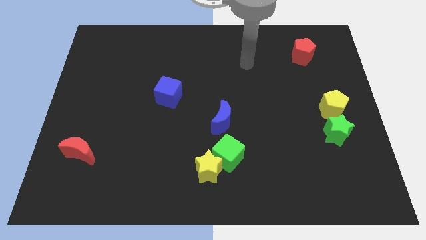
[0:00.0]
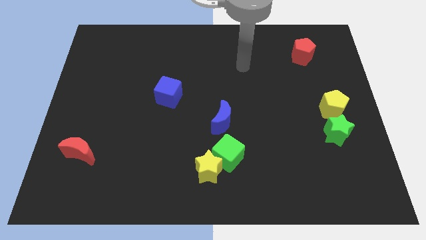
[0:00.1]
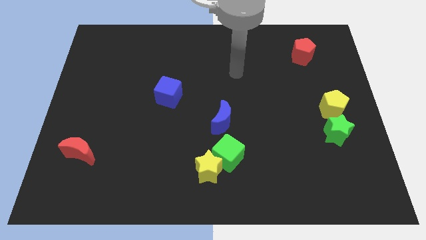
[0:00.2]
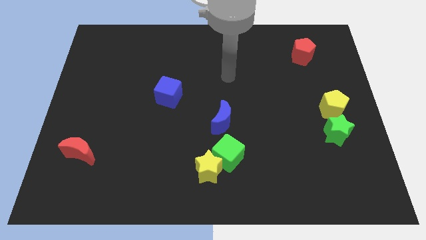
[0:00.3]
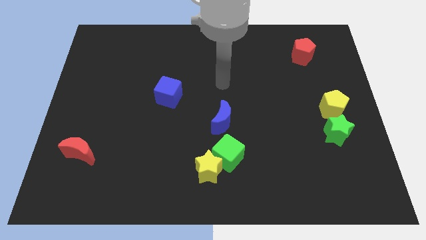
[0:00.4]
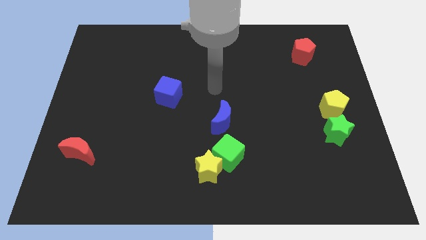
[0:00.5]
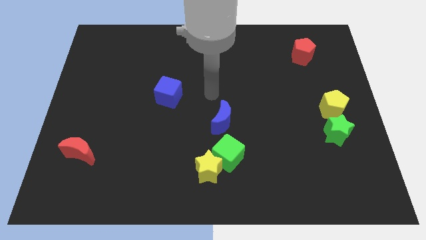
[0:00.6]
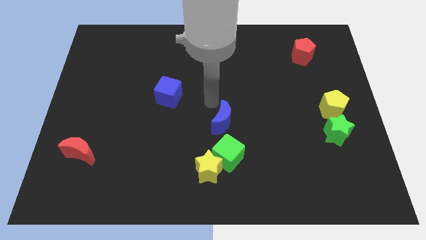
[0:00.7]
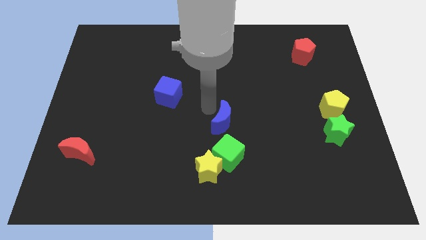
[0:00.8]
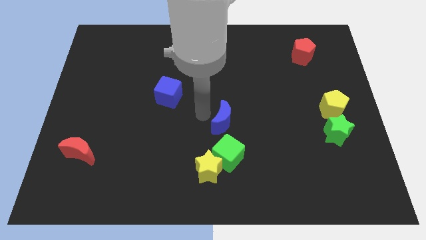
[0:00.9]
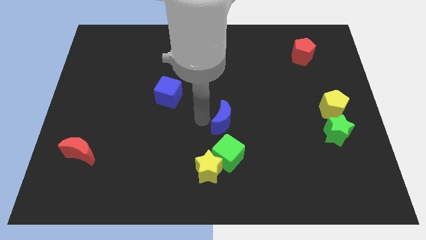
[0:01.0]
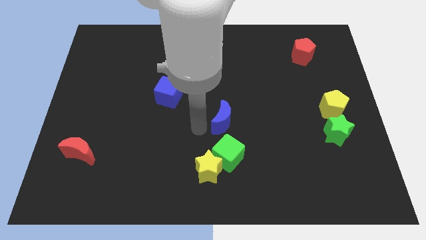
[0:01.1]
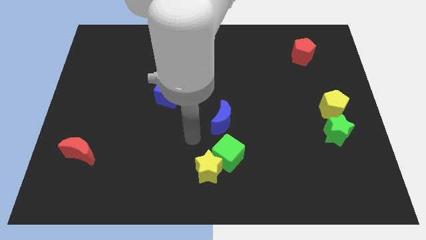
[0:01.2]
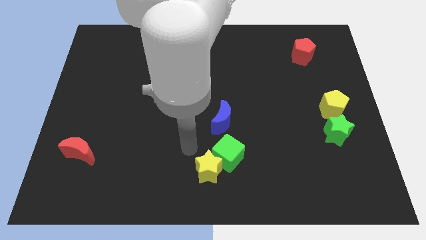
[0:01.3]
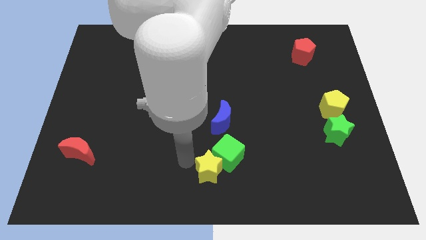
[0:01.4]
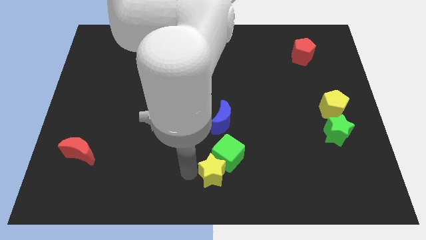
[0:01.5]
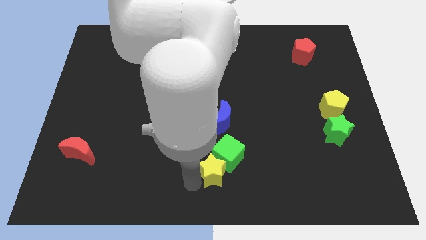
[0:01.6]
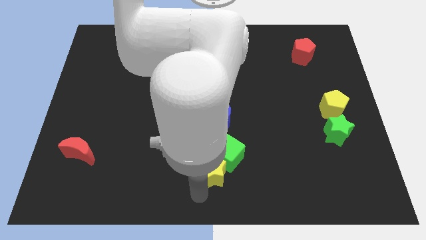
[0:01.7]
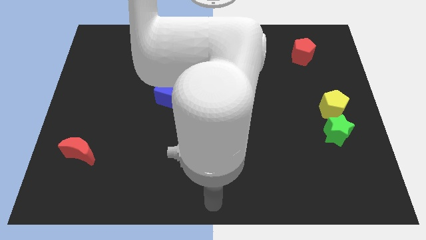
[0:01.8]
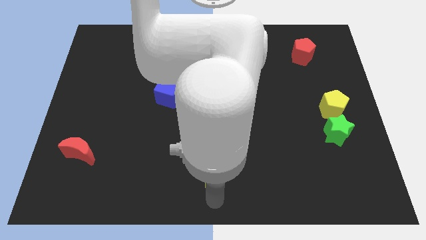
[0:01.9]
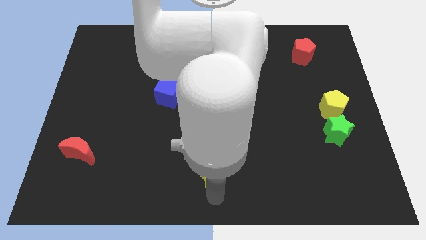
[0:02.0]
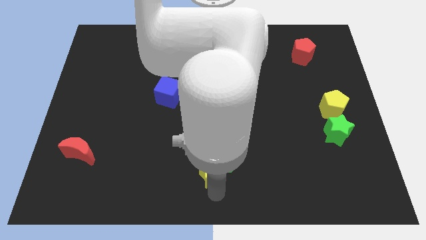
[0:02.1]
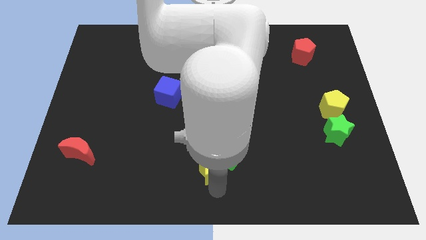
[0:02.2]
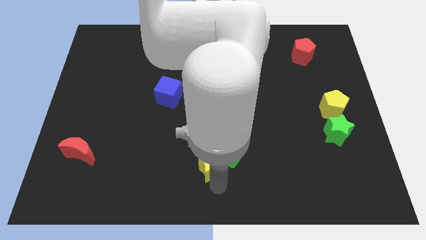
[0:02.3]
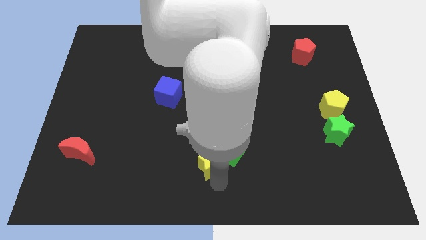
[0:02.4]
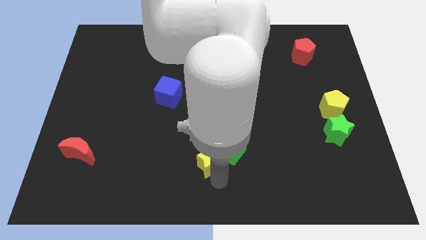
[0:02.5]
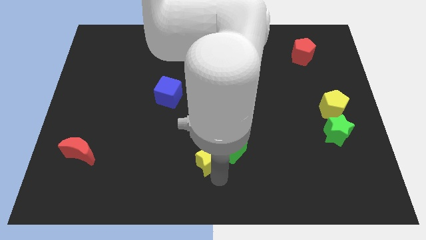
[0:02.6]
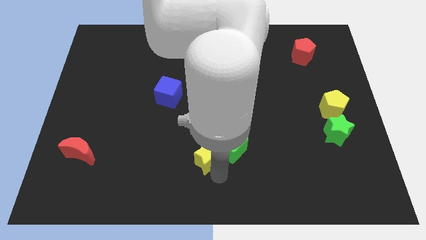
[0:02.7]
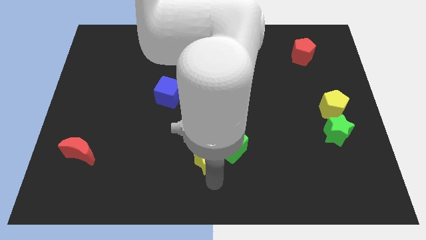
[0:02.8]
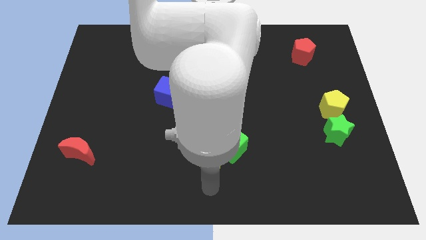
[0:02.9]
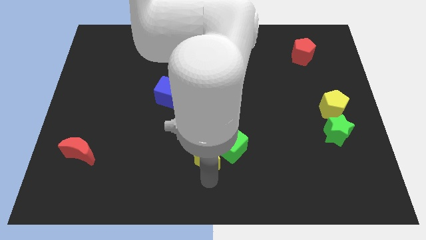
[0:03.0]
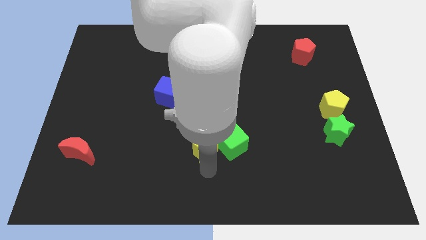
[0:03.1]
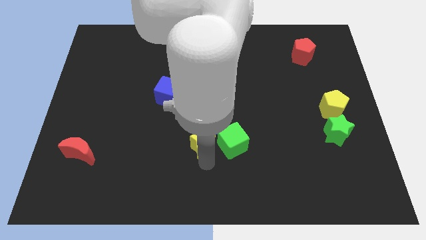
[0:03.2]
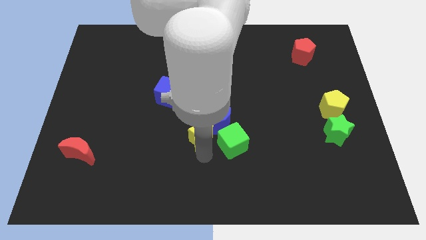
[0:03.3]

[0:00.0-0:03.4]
slightly push the yellow star upwards

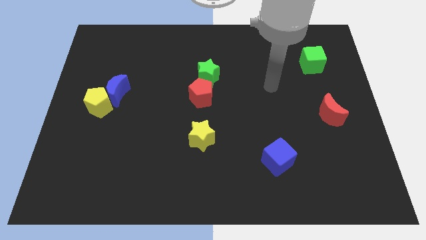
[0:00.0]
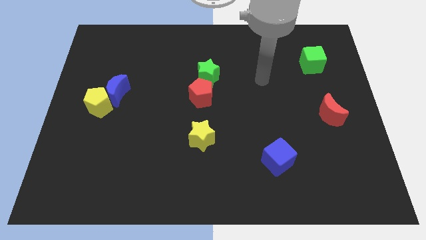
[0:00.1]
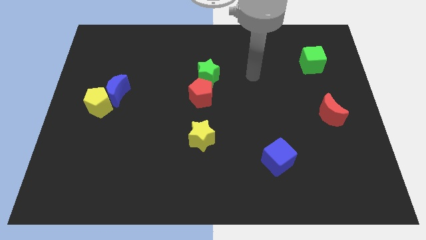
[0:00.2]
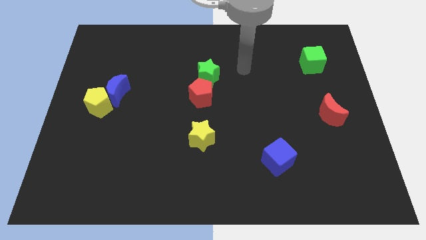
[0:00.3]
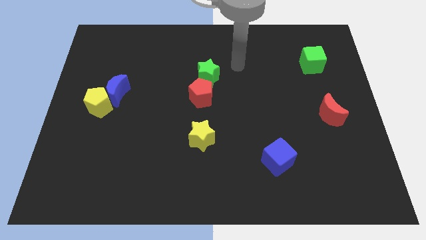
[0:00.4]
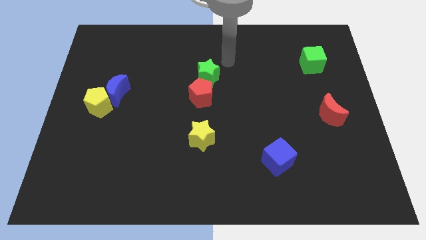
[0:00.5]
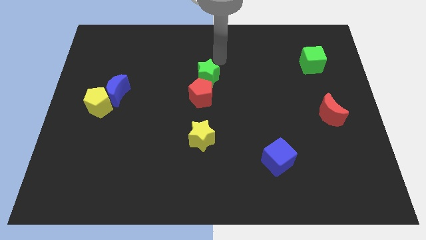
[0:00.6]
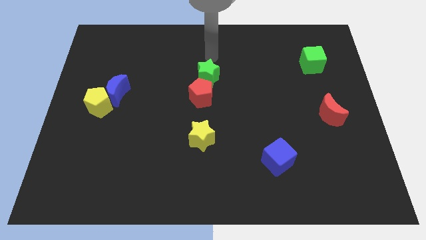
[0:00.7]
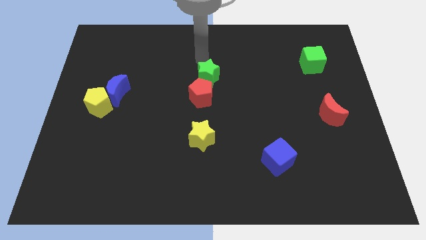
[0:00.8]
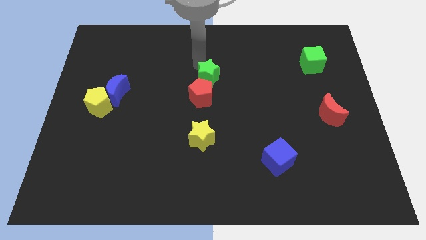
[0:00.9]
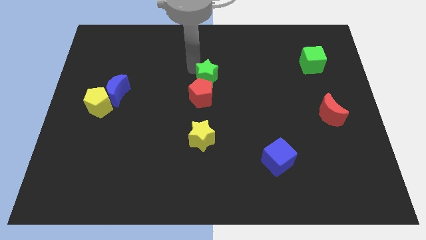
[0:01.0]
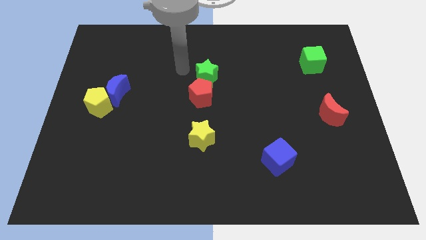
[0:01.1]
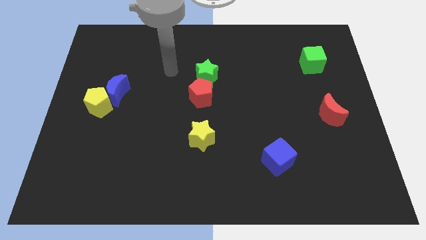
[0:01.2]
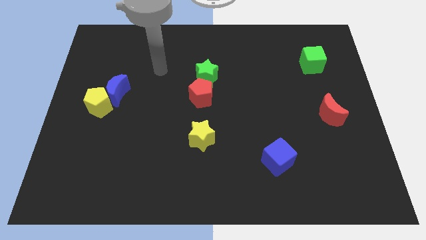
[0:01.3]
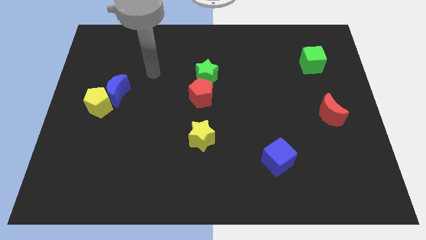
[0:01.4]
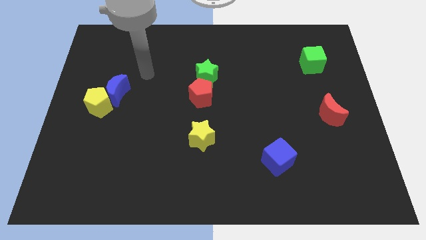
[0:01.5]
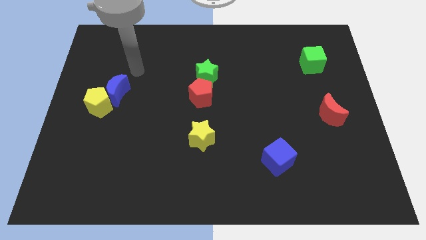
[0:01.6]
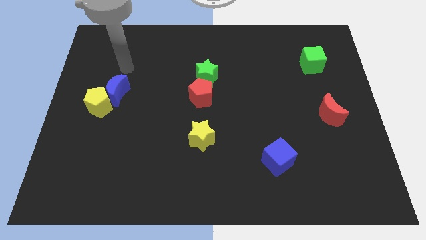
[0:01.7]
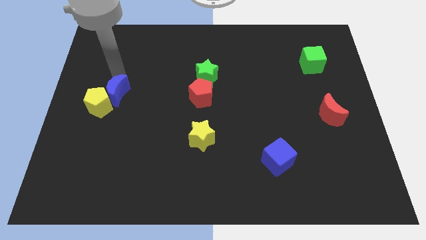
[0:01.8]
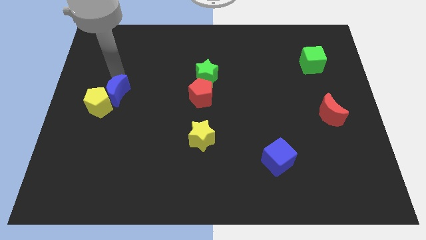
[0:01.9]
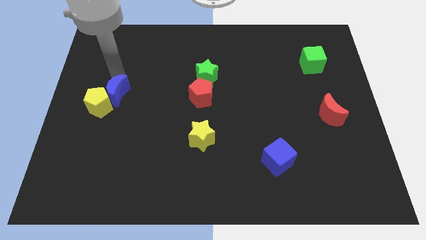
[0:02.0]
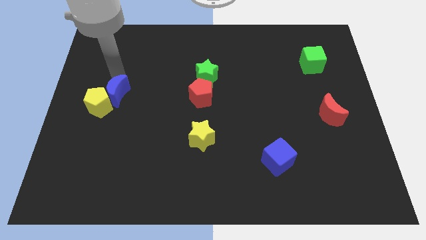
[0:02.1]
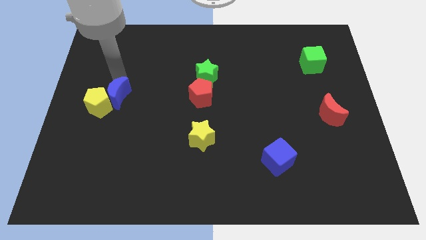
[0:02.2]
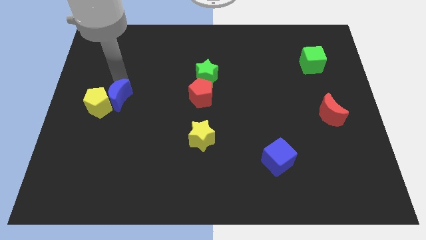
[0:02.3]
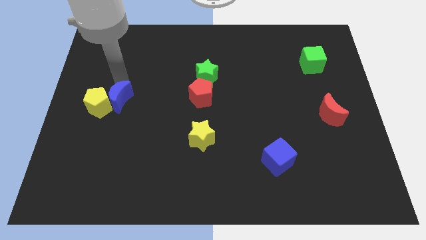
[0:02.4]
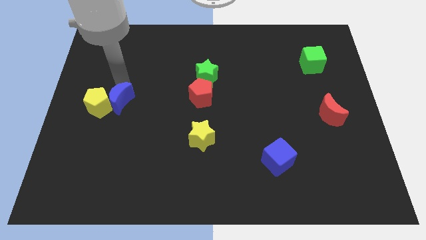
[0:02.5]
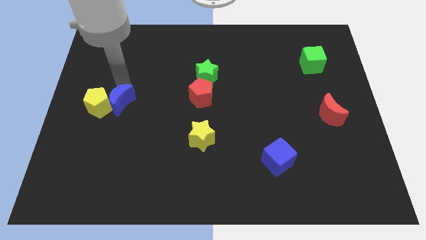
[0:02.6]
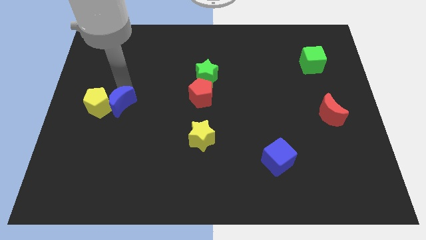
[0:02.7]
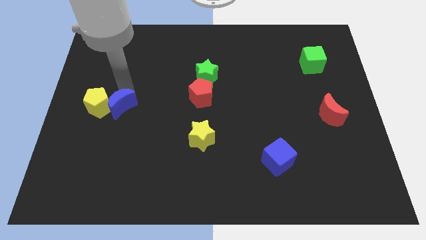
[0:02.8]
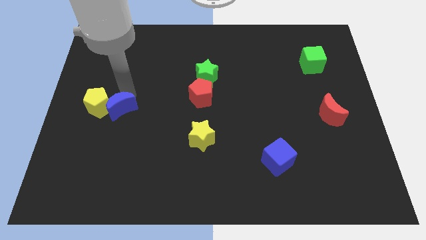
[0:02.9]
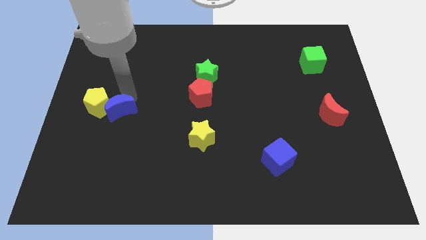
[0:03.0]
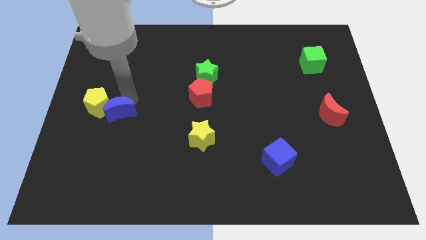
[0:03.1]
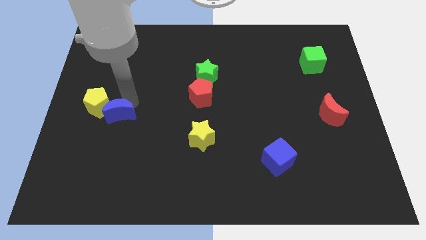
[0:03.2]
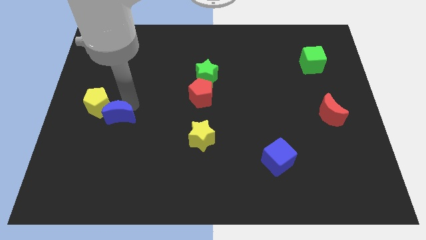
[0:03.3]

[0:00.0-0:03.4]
slide the blue moon down slightly

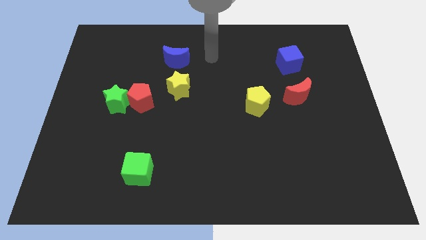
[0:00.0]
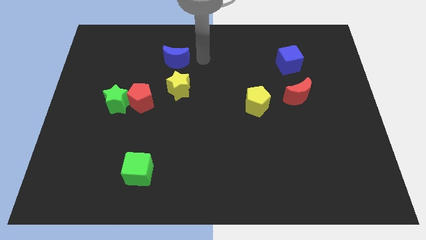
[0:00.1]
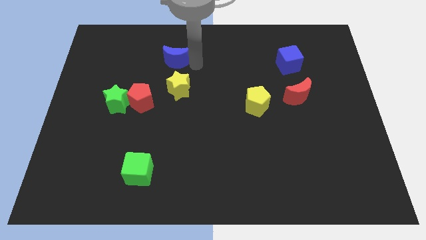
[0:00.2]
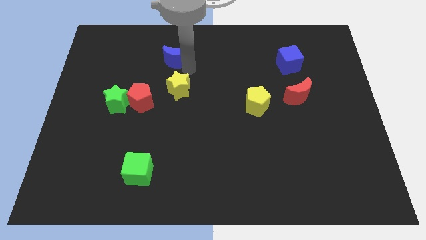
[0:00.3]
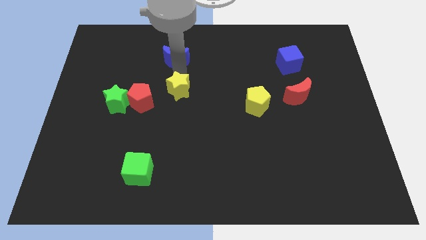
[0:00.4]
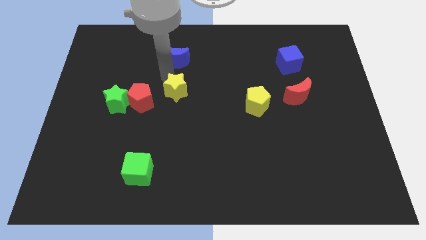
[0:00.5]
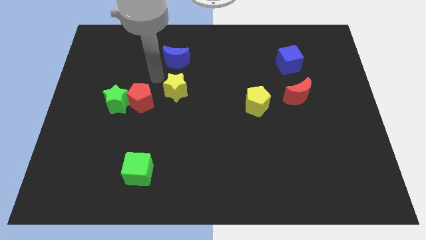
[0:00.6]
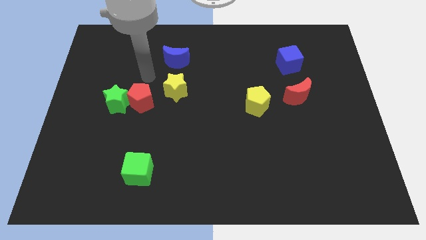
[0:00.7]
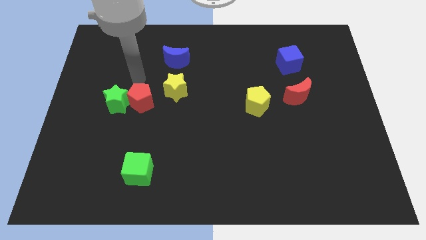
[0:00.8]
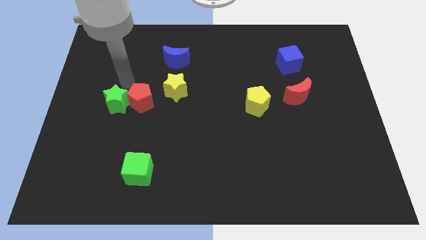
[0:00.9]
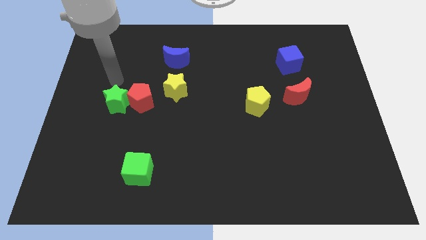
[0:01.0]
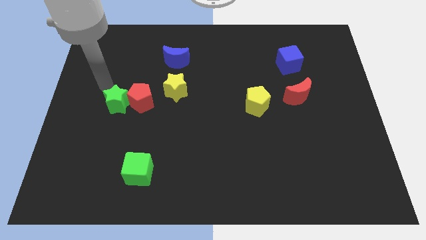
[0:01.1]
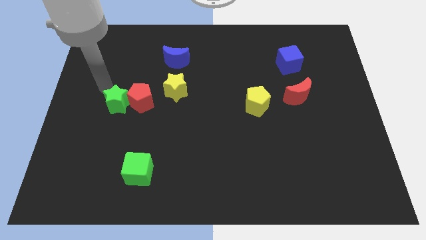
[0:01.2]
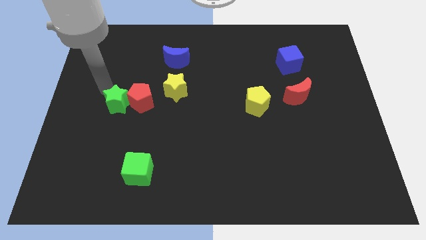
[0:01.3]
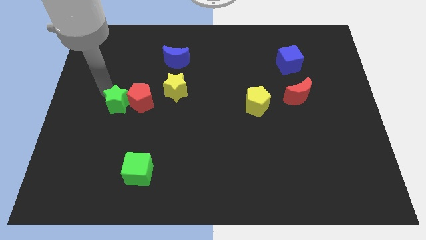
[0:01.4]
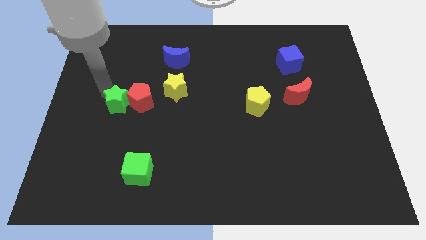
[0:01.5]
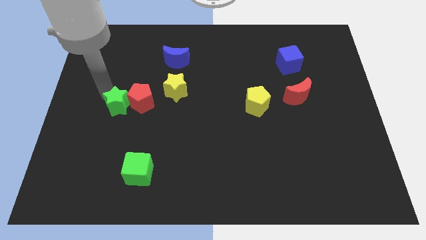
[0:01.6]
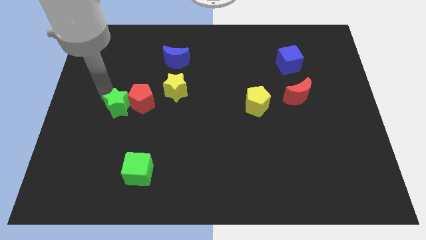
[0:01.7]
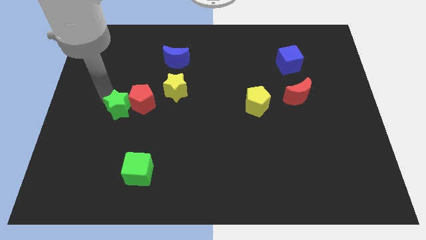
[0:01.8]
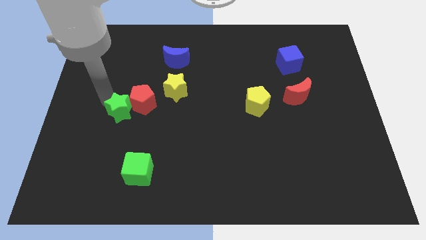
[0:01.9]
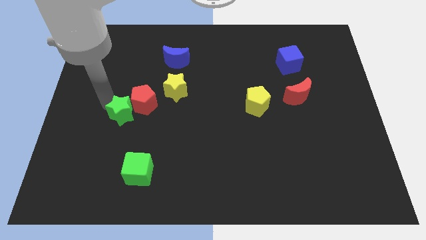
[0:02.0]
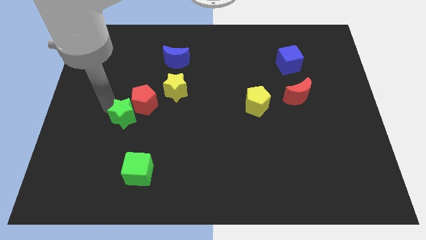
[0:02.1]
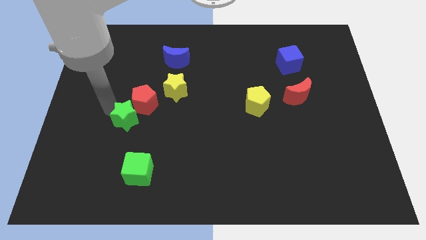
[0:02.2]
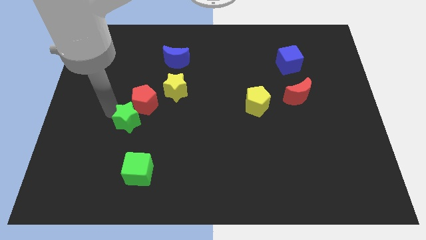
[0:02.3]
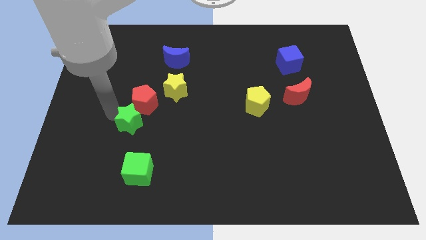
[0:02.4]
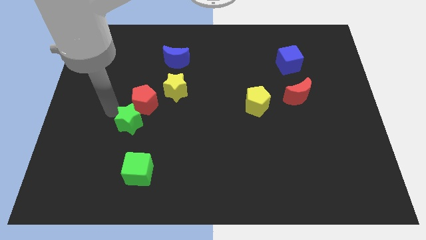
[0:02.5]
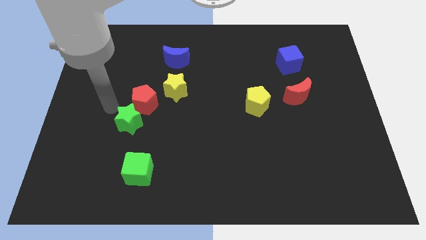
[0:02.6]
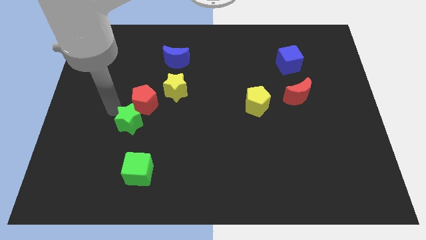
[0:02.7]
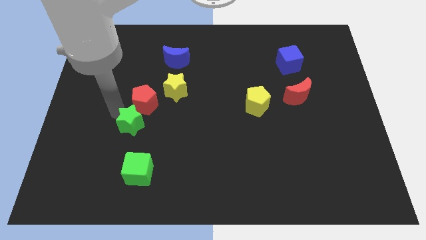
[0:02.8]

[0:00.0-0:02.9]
slightly slide the green star down and then right
